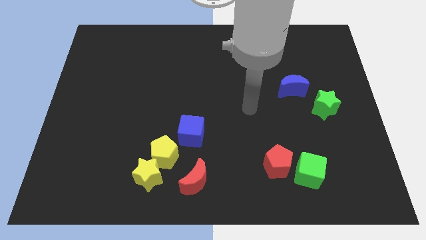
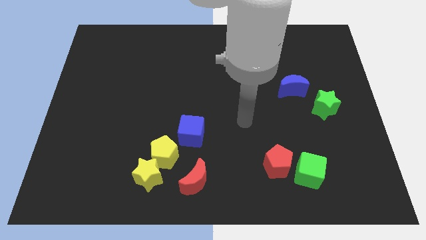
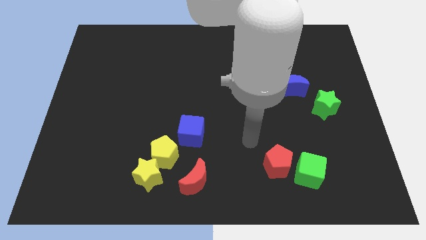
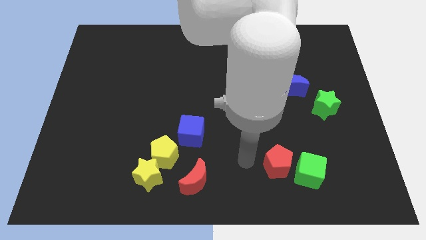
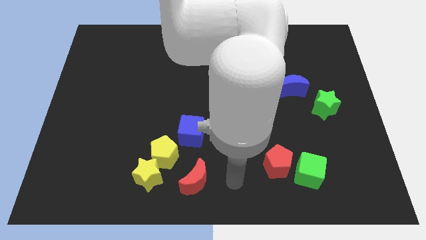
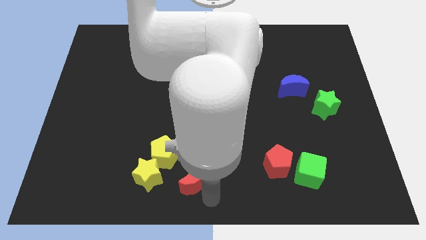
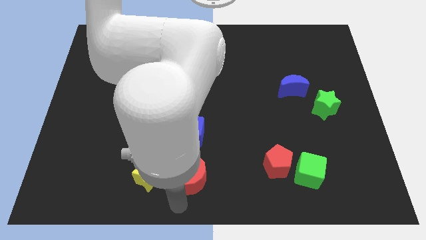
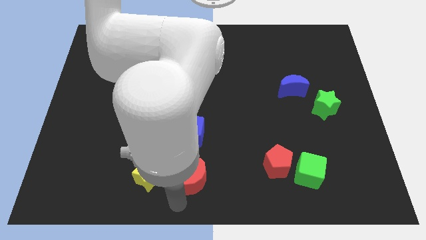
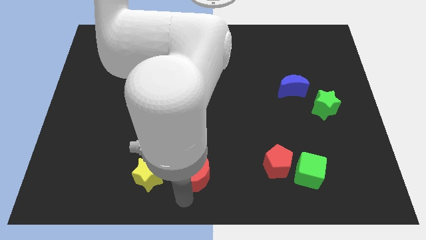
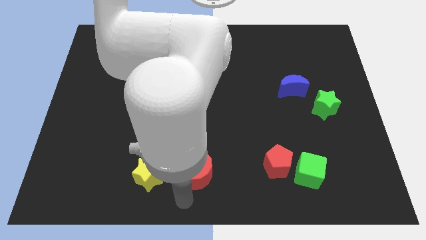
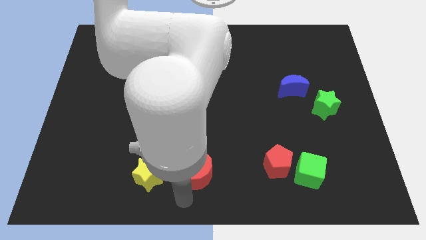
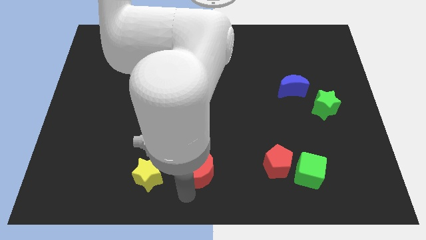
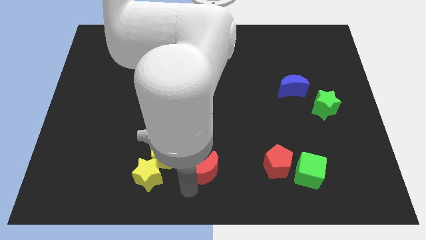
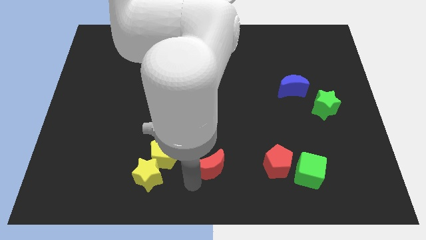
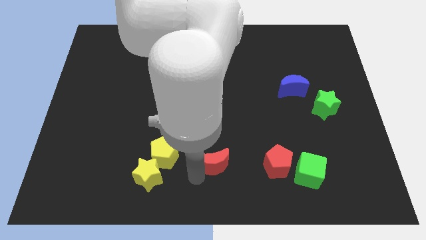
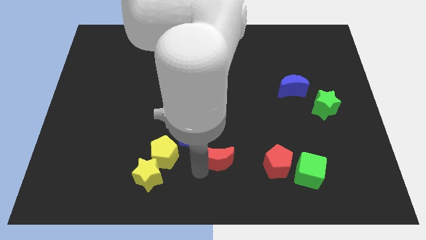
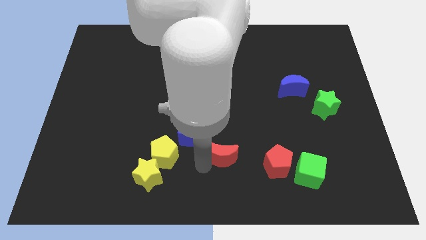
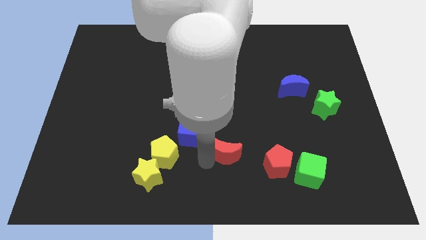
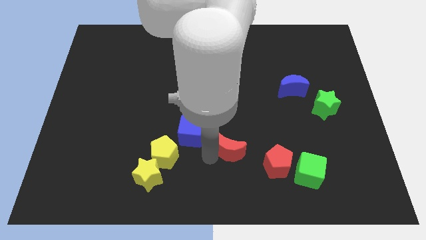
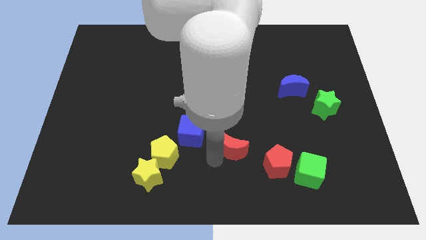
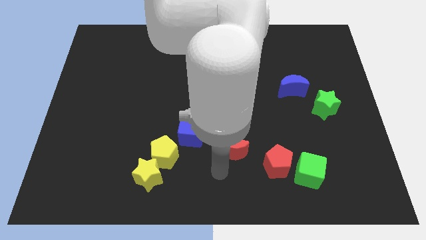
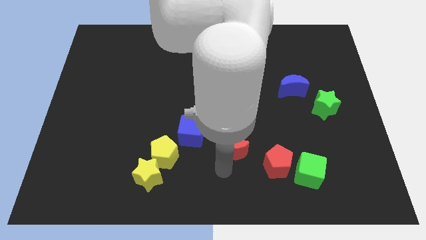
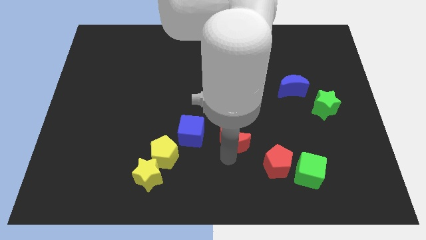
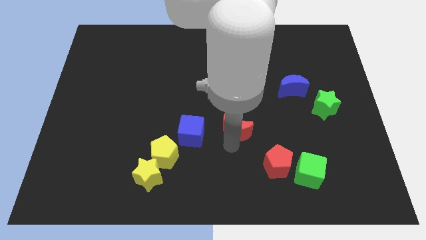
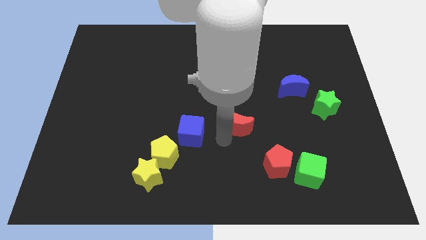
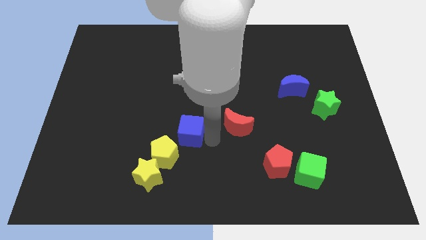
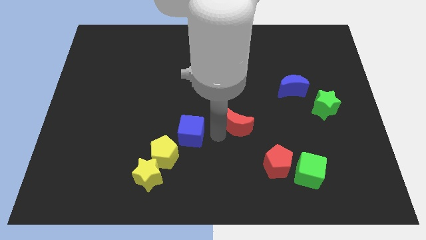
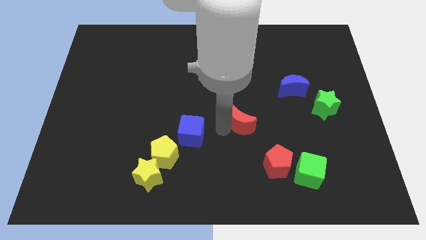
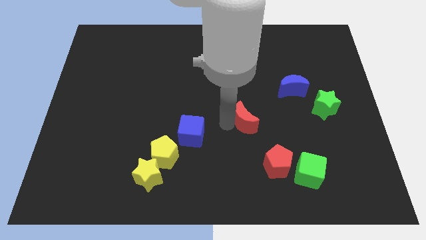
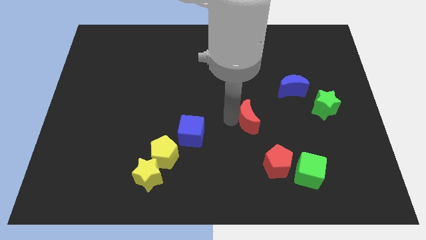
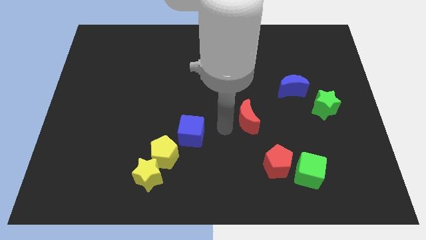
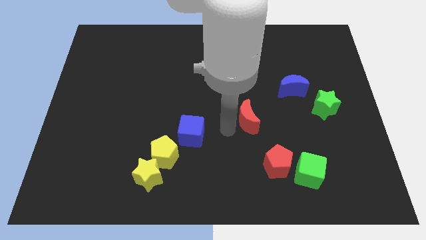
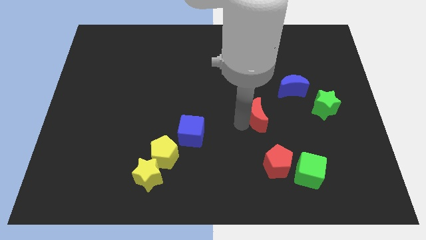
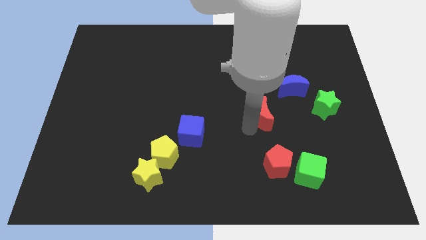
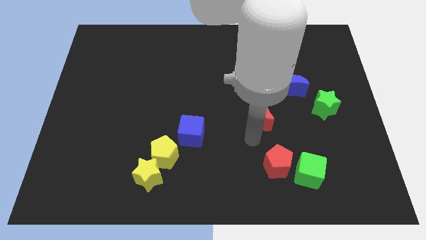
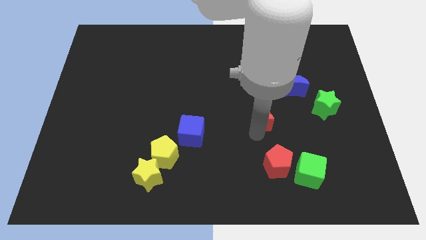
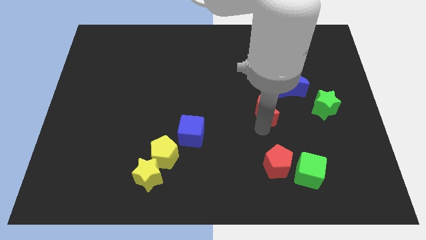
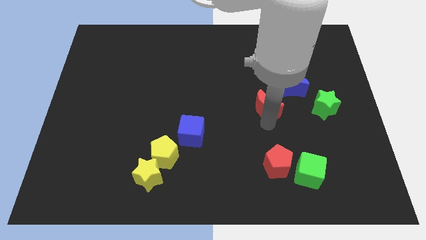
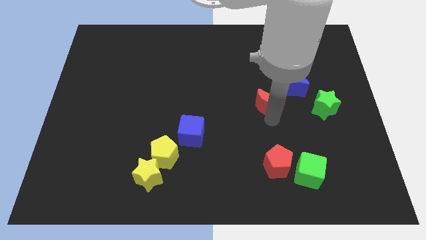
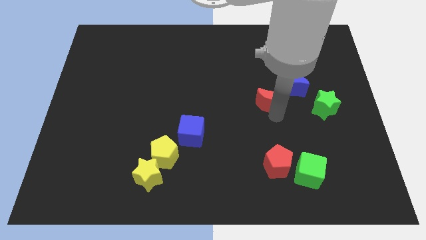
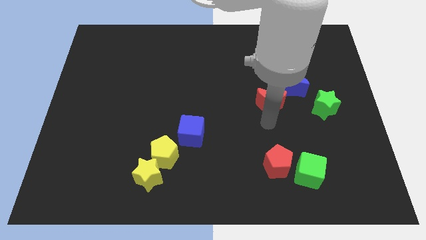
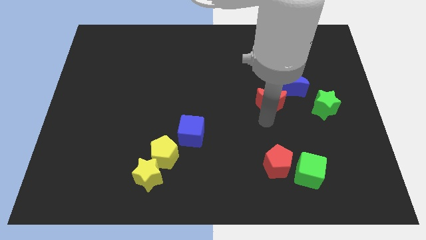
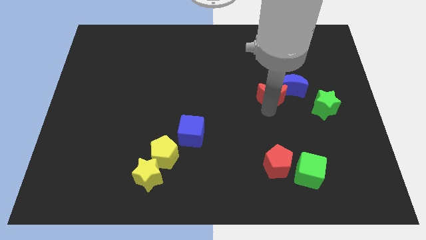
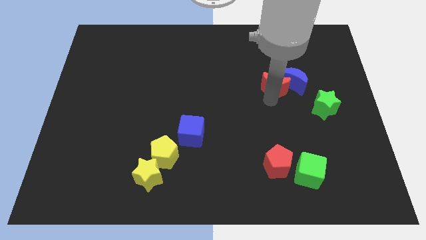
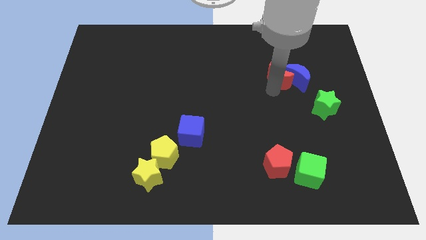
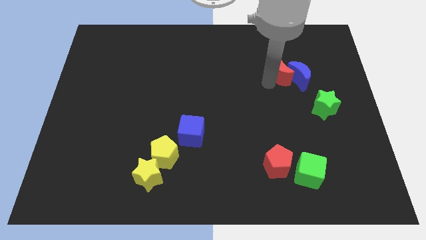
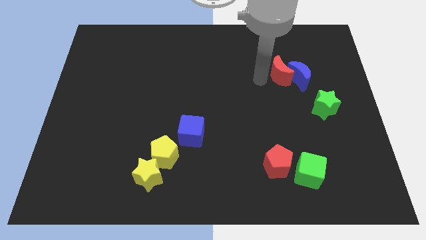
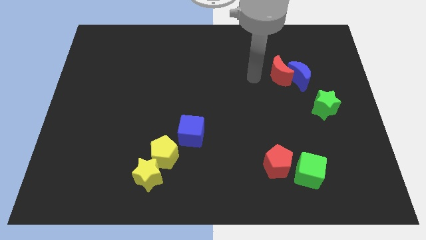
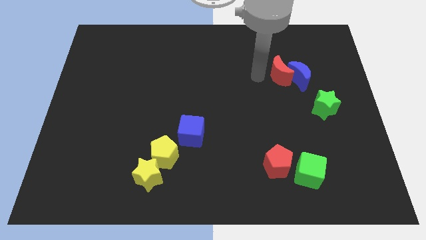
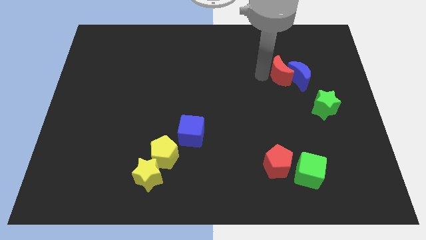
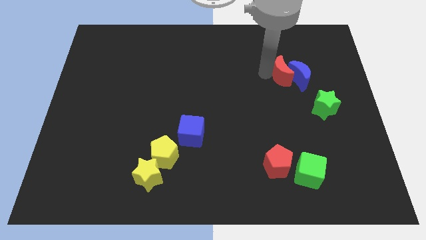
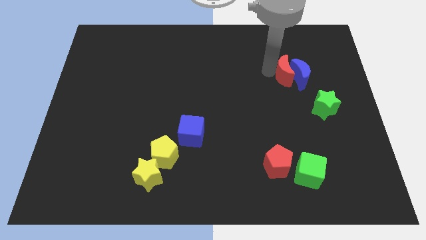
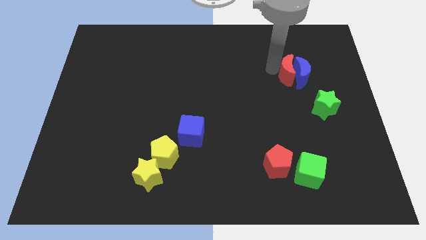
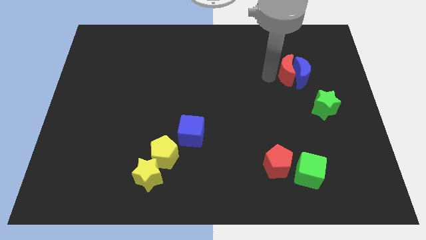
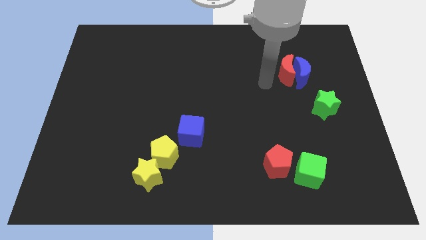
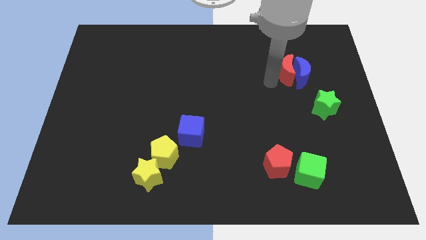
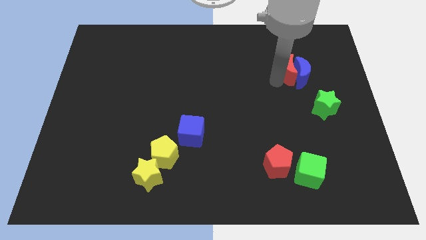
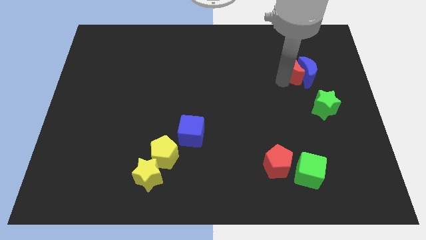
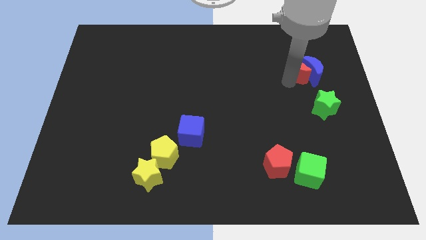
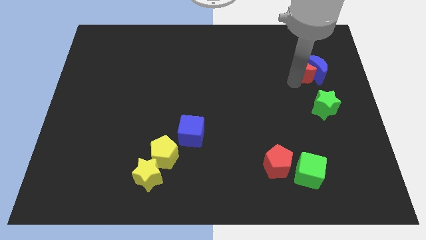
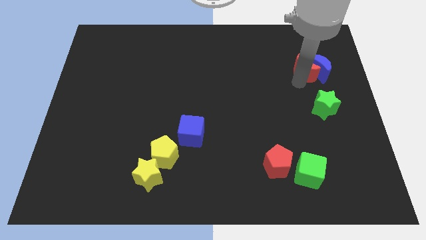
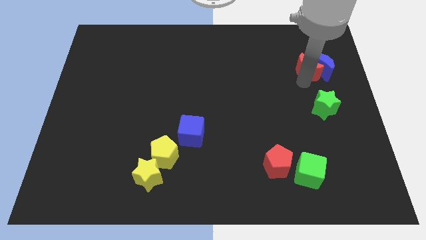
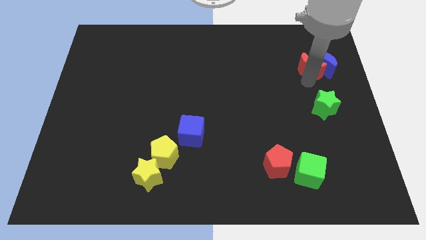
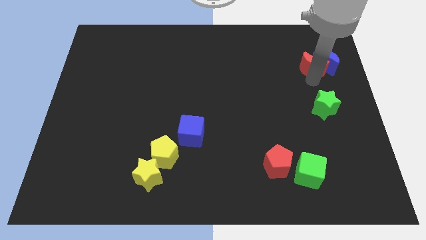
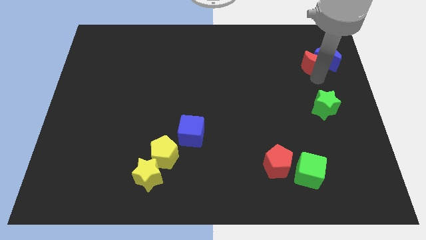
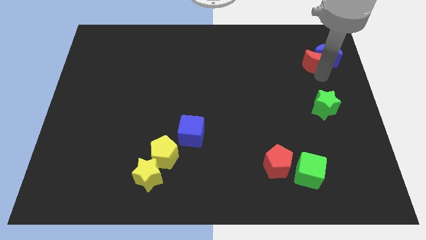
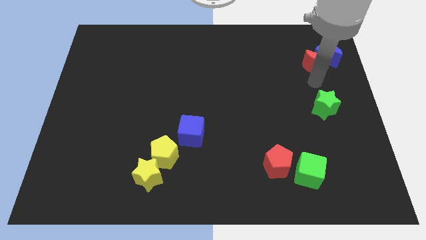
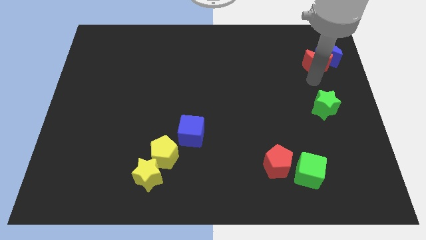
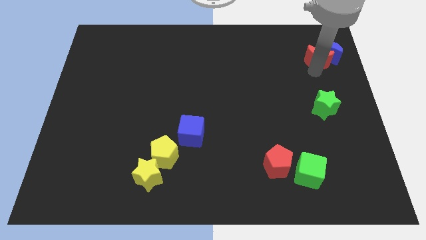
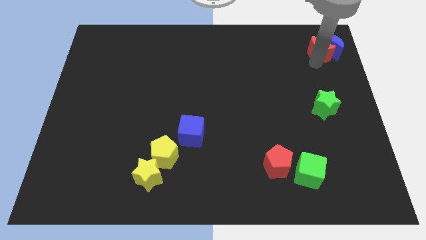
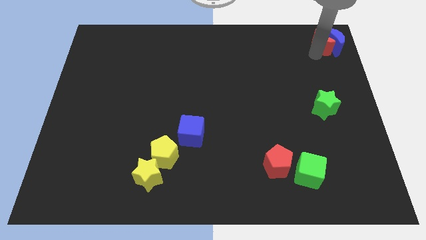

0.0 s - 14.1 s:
move the red moon to the top right corner

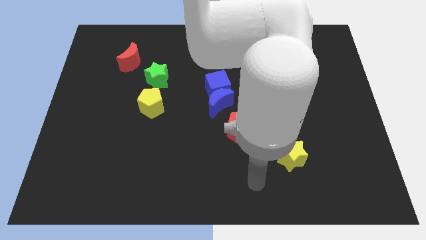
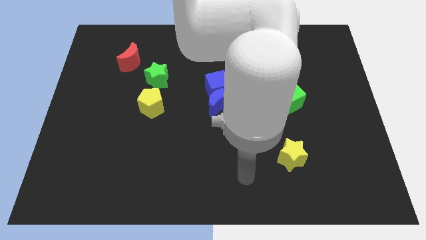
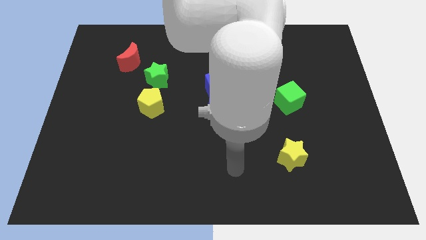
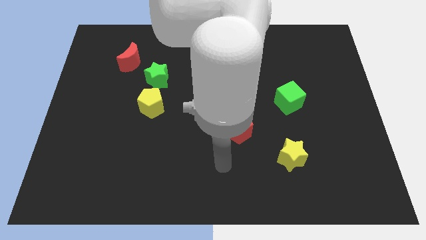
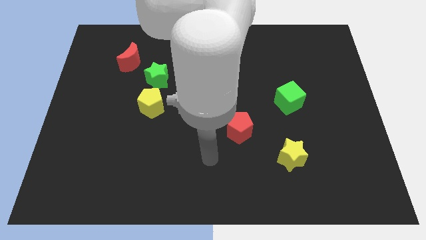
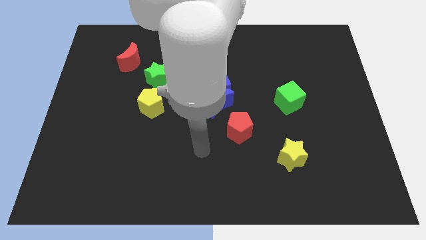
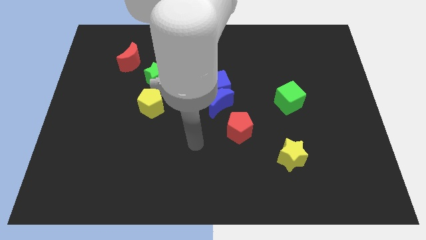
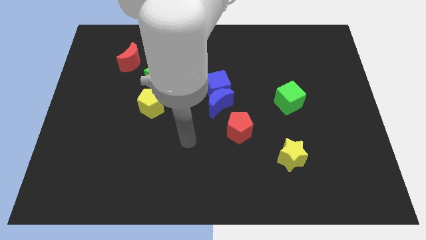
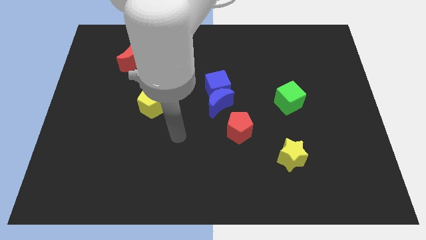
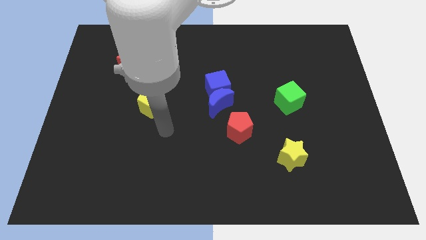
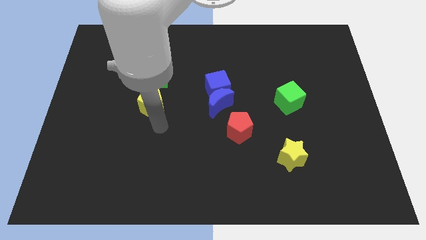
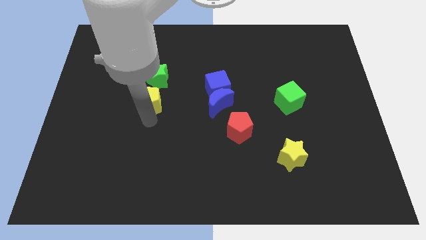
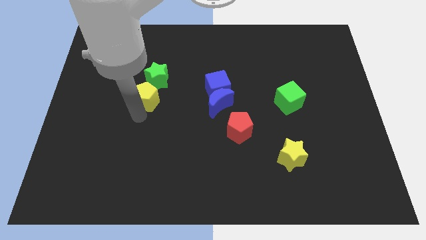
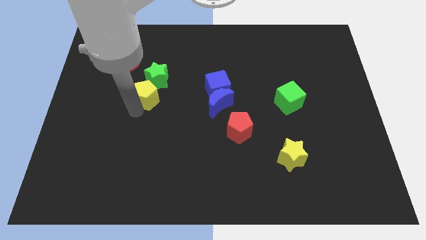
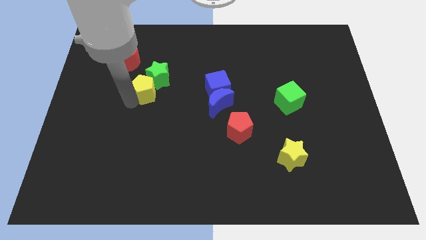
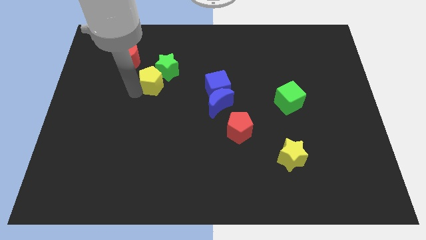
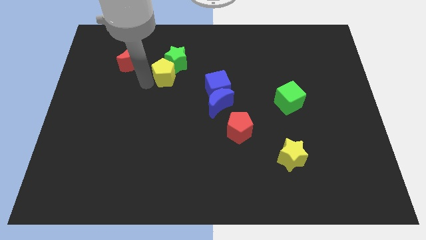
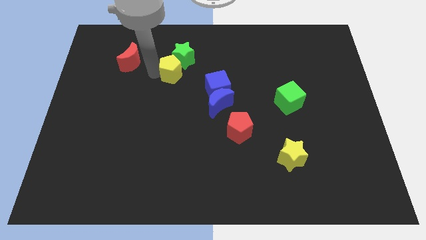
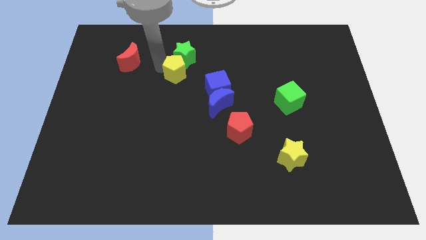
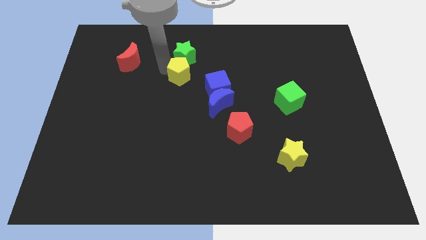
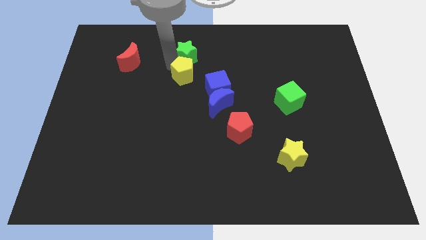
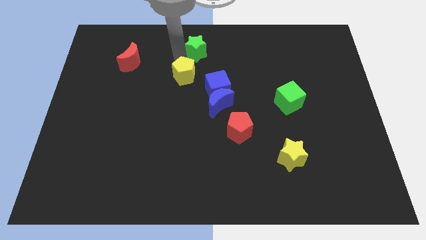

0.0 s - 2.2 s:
move the green star to the towards your base
